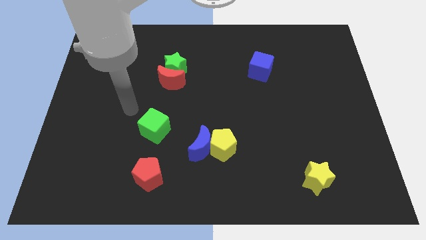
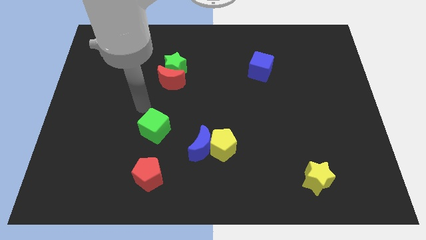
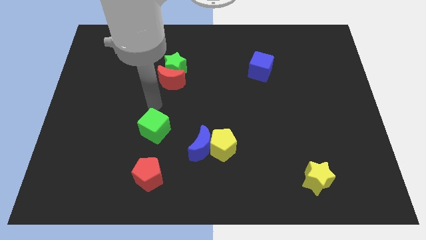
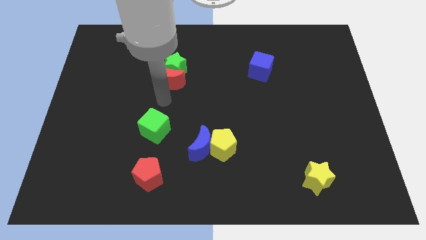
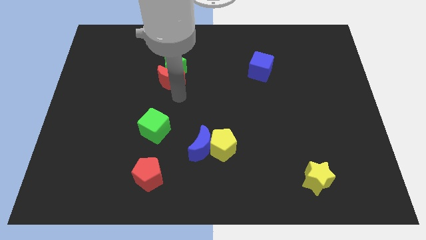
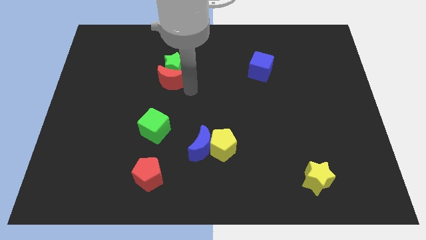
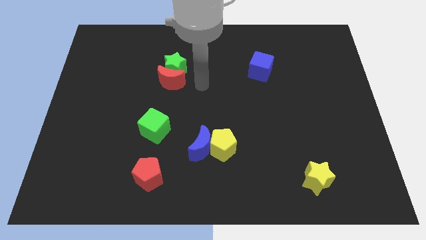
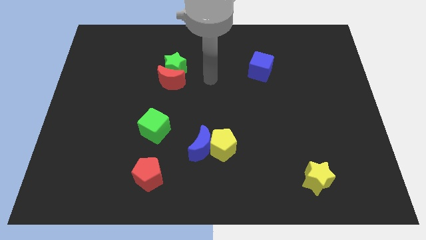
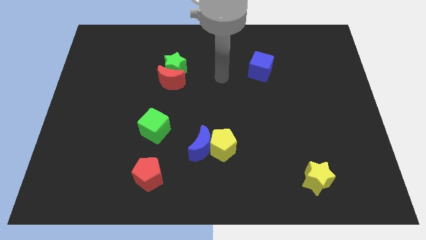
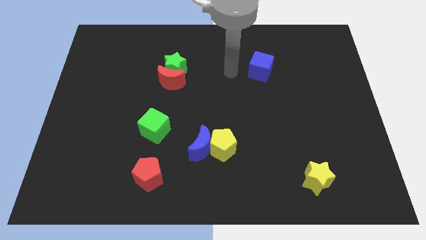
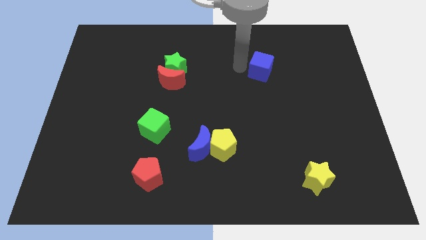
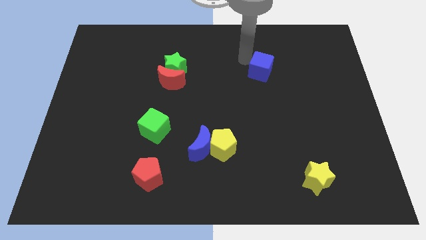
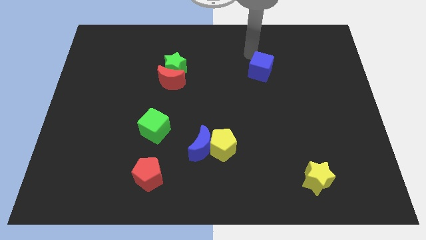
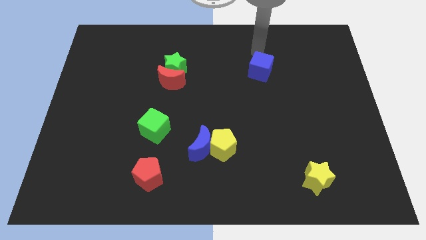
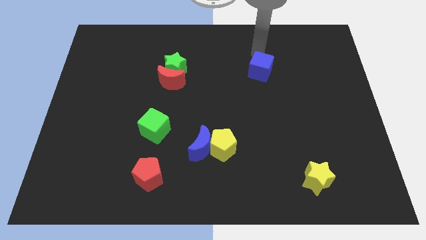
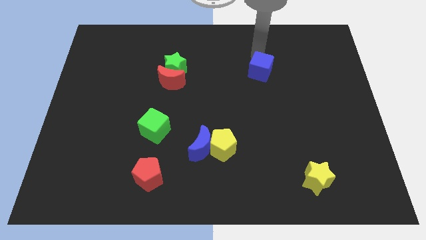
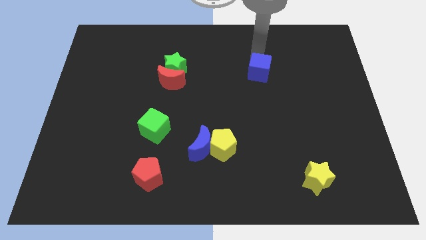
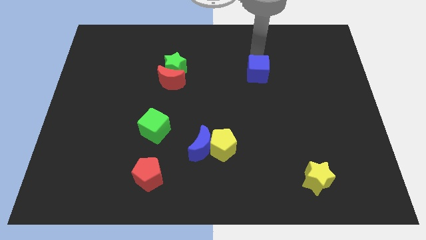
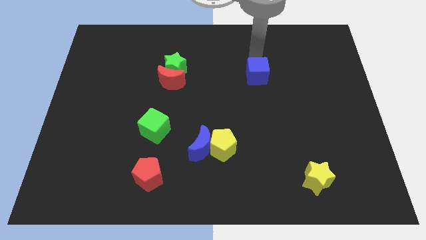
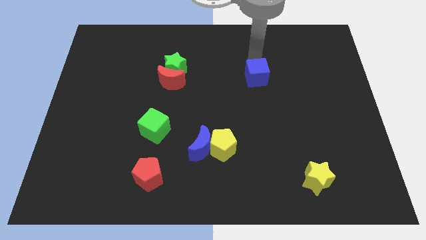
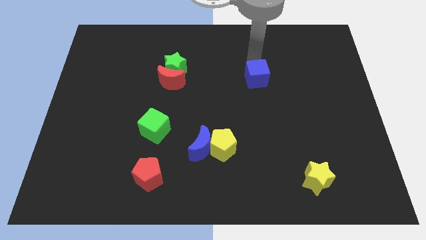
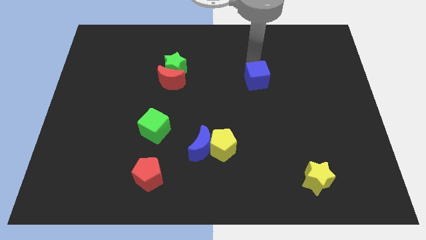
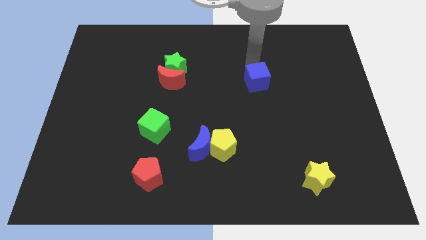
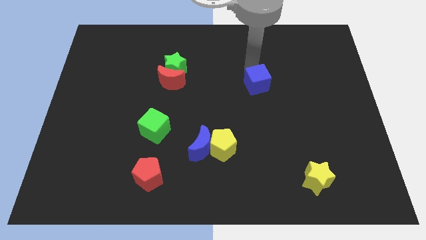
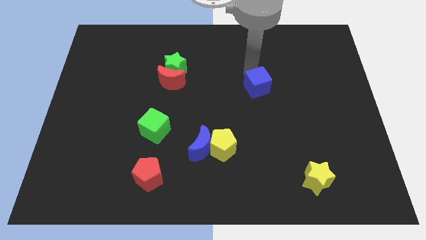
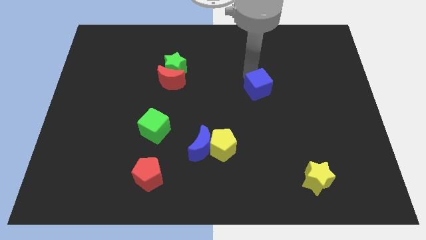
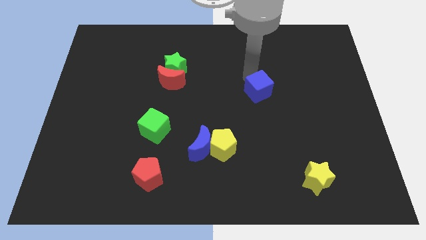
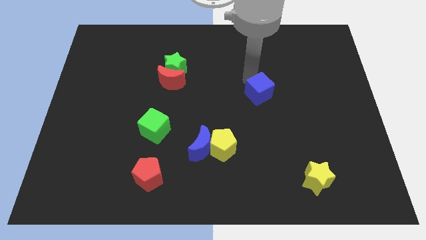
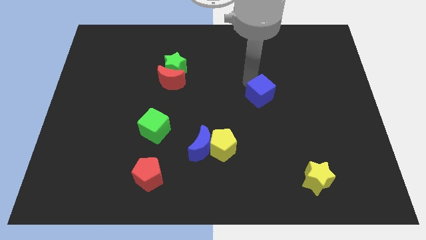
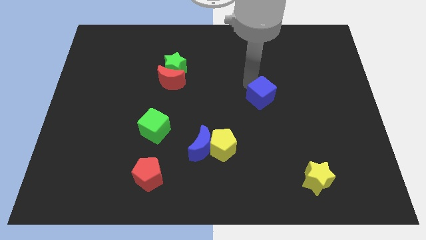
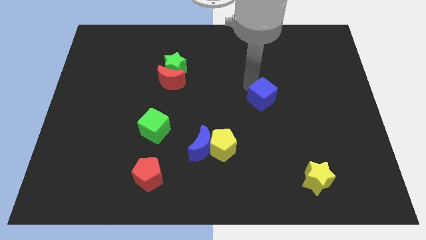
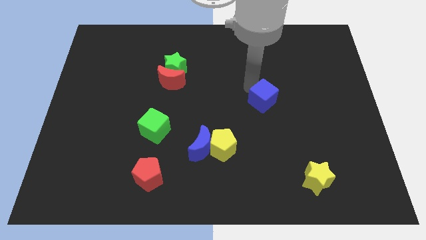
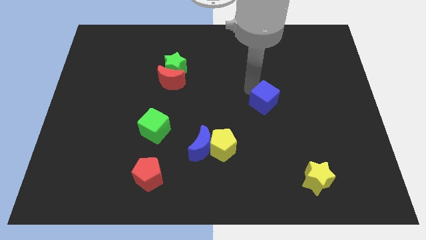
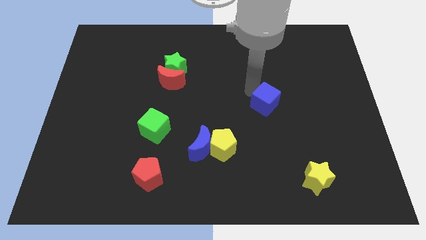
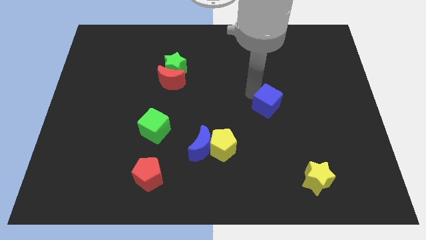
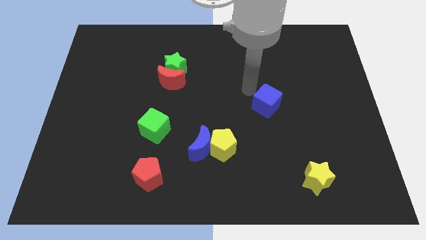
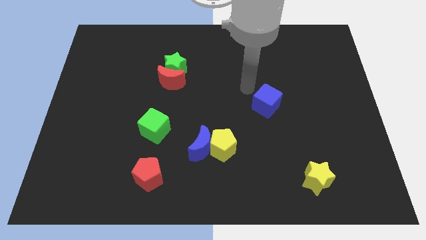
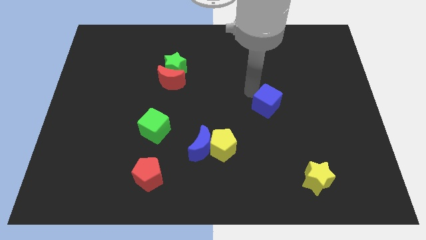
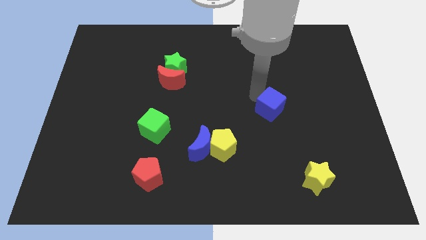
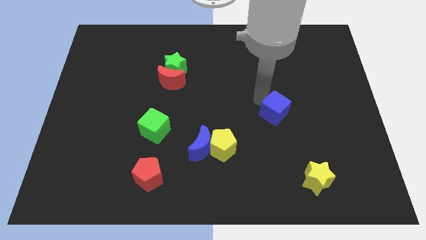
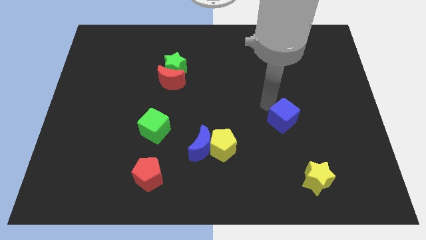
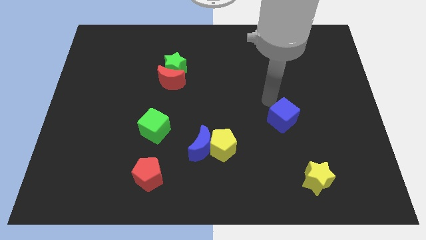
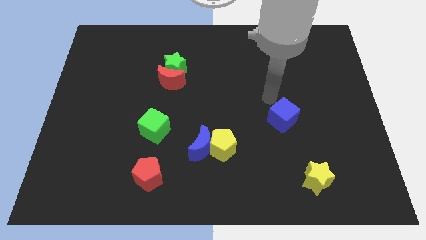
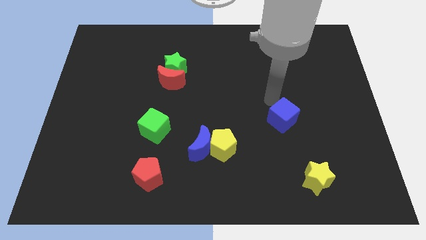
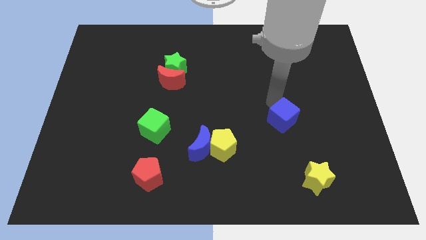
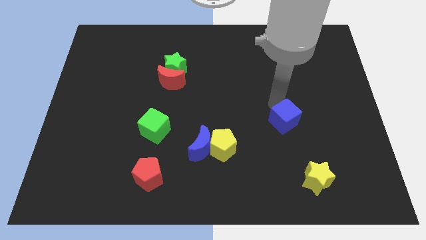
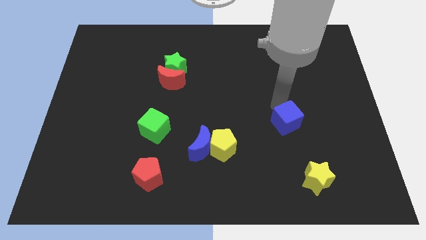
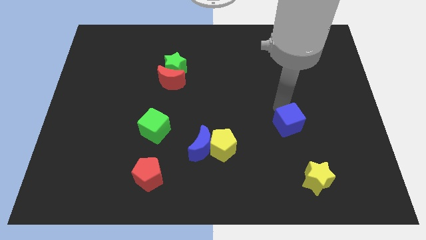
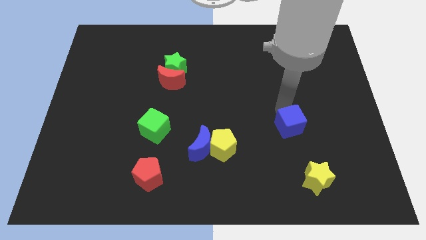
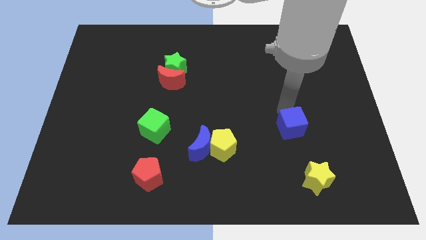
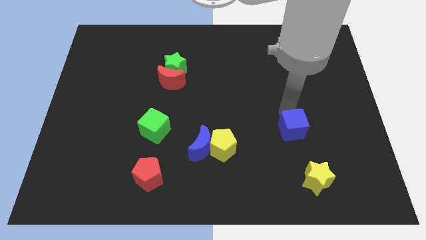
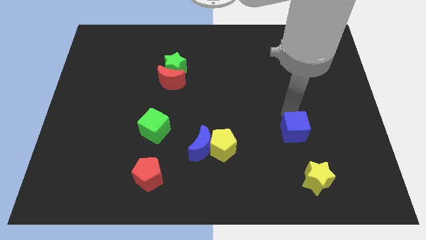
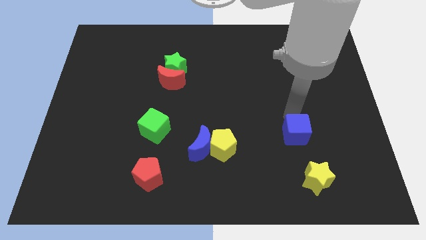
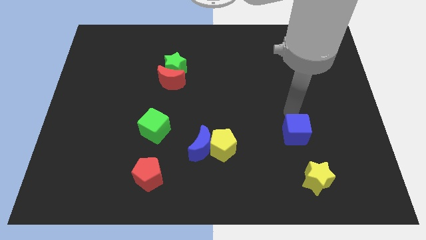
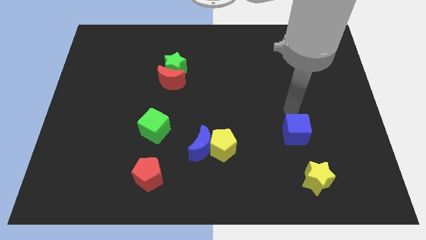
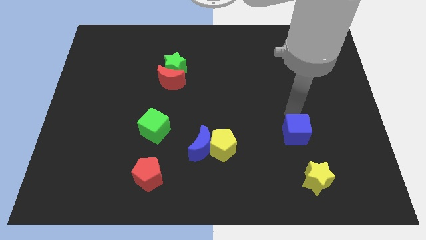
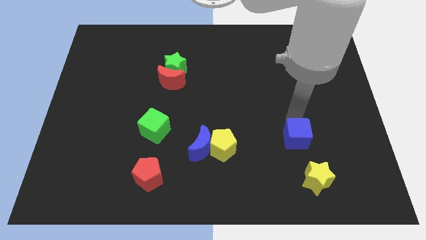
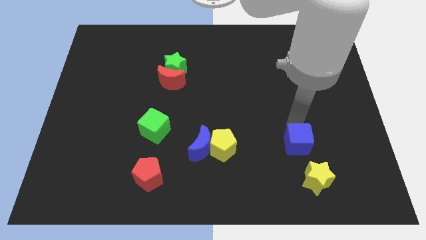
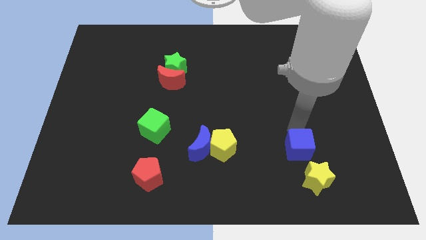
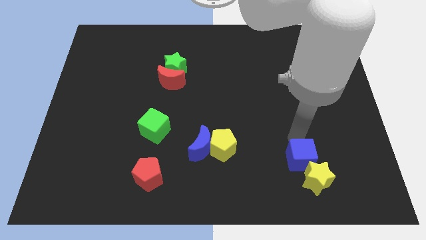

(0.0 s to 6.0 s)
move the blue cube to the yellow star

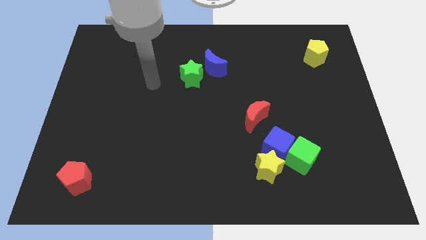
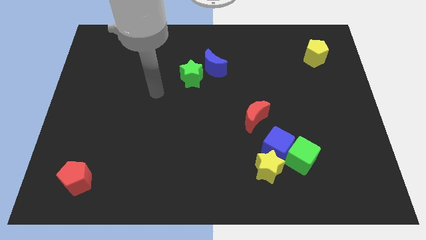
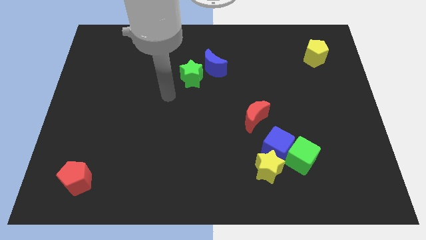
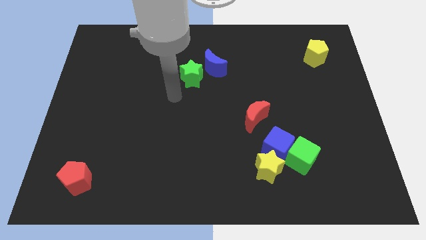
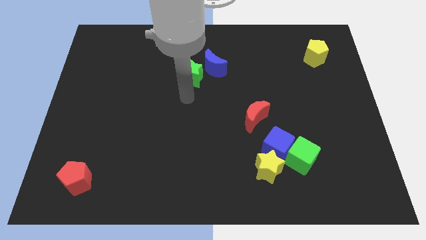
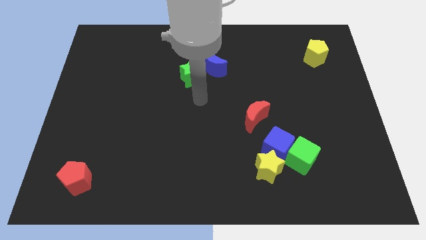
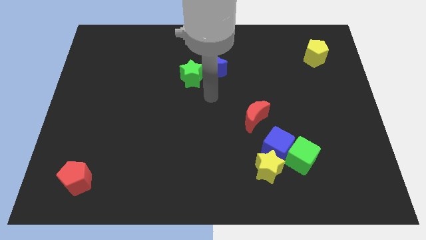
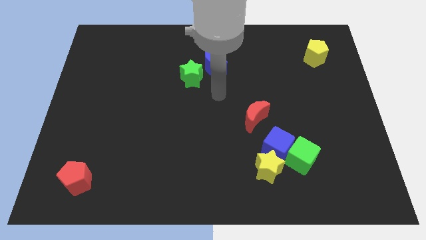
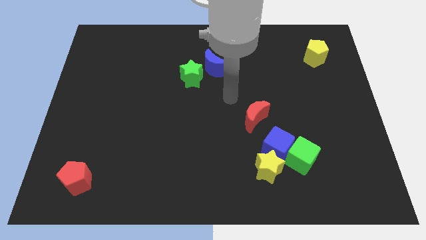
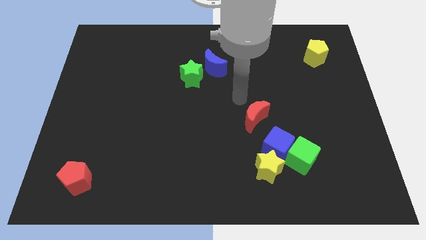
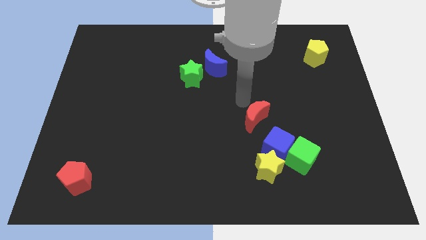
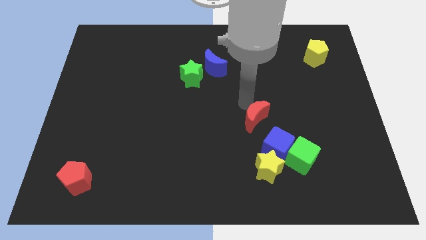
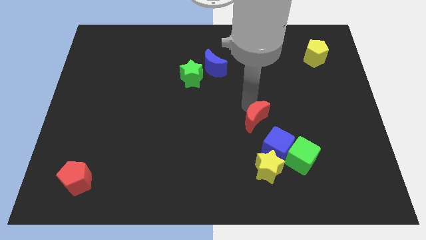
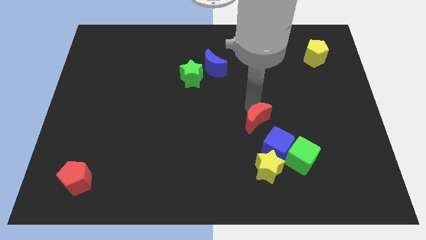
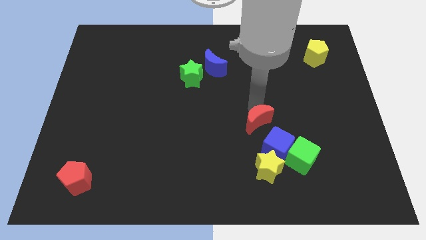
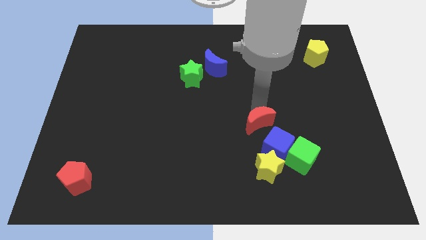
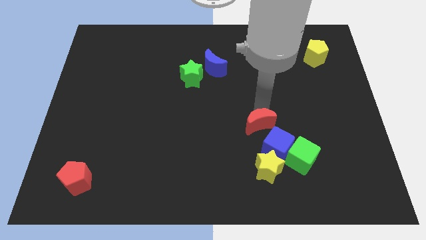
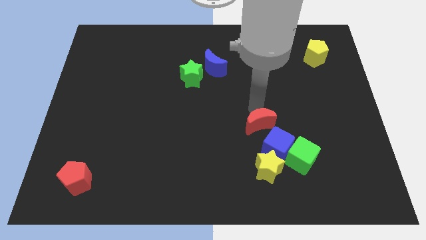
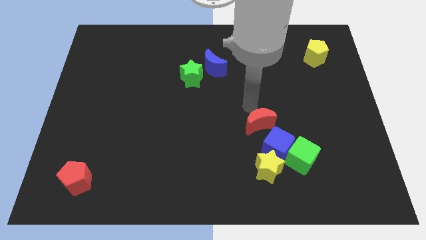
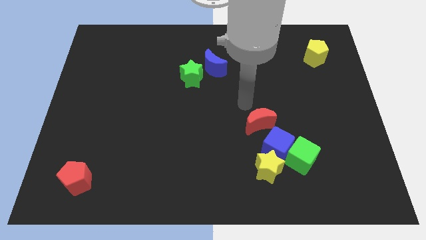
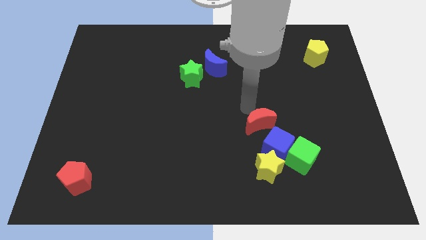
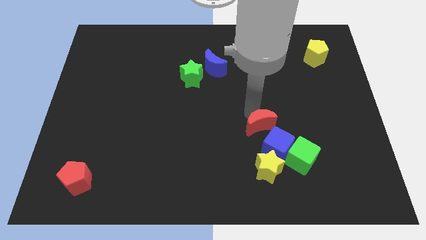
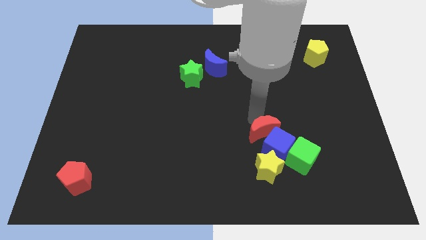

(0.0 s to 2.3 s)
slide the red moon next to the blue cube
